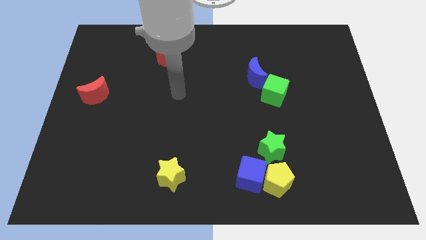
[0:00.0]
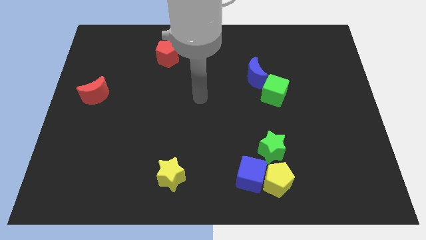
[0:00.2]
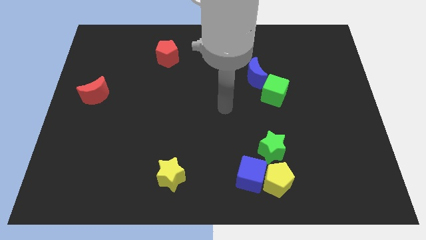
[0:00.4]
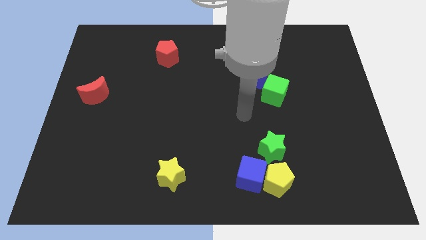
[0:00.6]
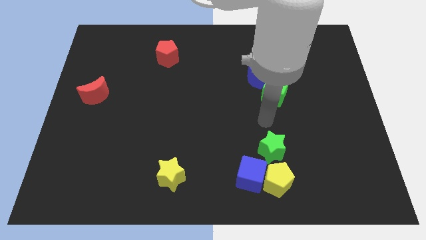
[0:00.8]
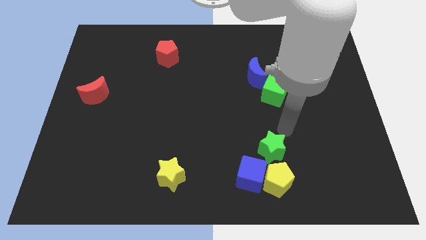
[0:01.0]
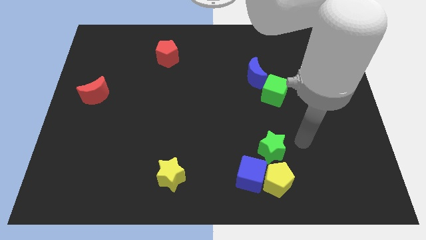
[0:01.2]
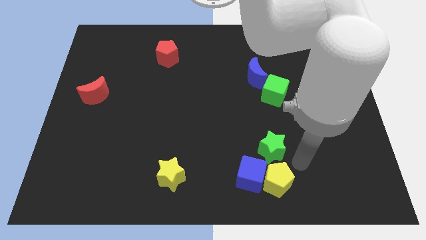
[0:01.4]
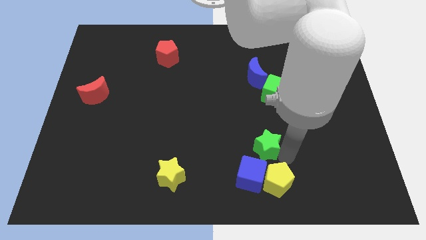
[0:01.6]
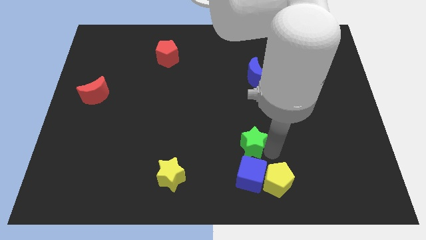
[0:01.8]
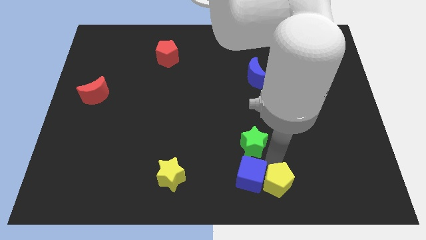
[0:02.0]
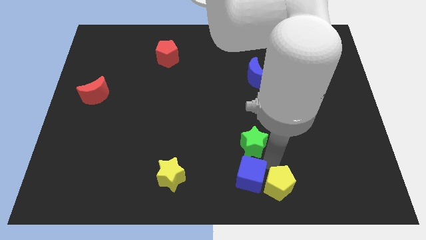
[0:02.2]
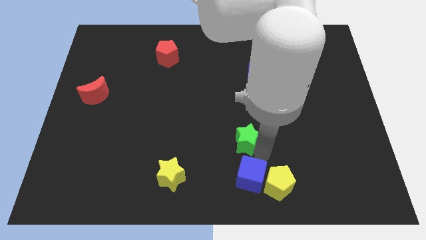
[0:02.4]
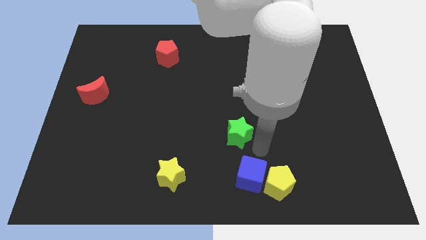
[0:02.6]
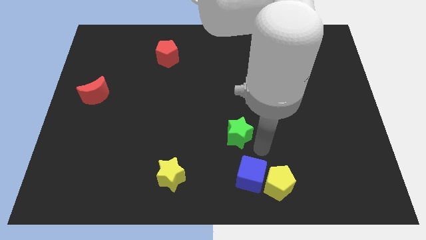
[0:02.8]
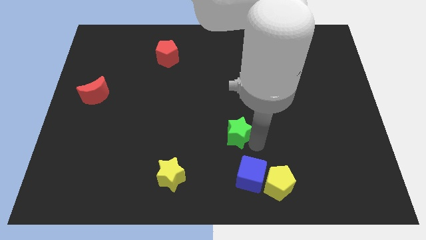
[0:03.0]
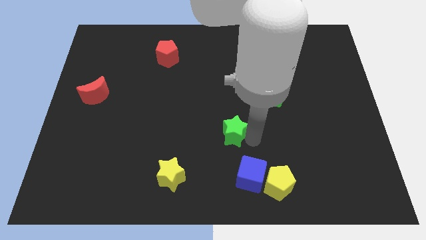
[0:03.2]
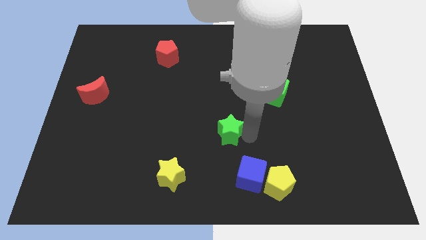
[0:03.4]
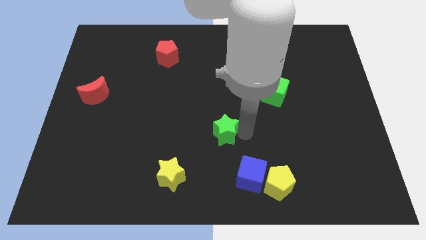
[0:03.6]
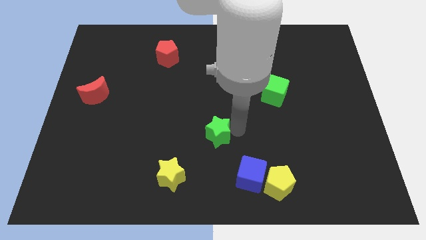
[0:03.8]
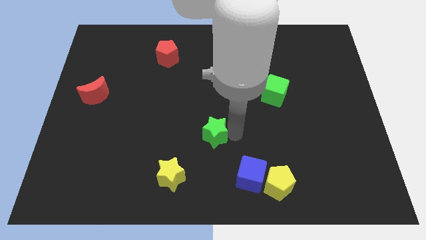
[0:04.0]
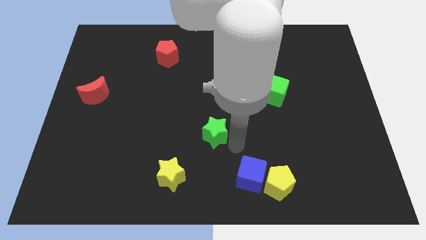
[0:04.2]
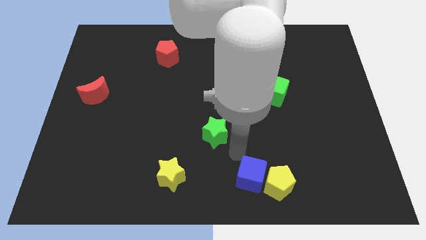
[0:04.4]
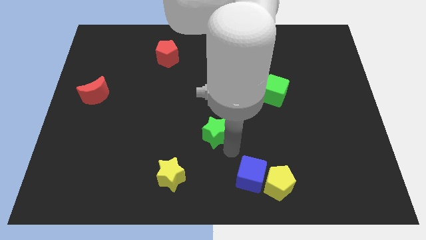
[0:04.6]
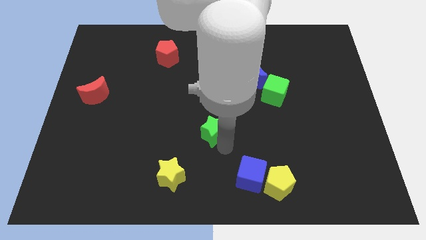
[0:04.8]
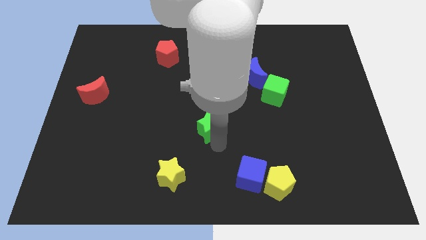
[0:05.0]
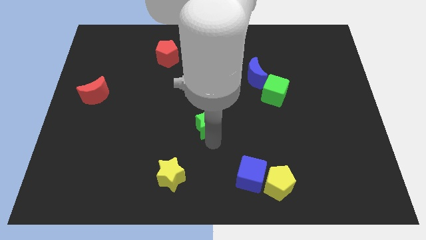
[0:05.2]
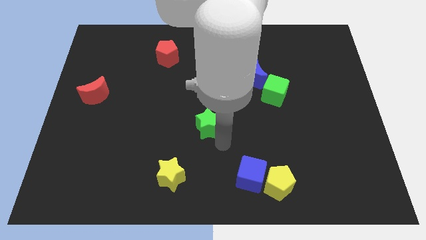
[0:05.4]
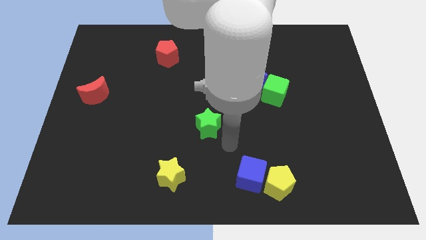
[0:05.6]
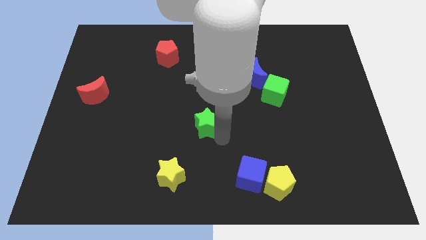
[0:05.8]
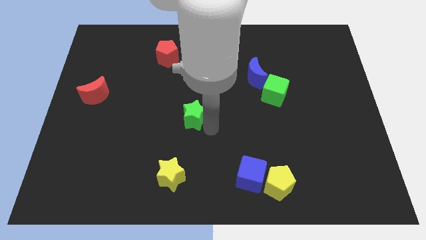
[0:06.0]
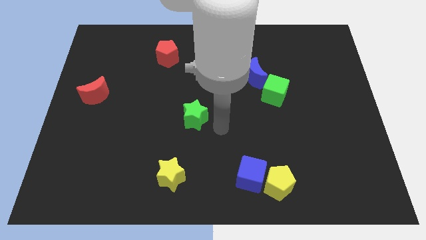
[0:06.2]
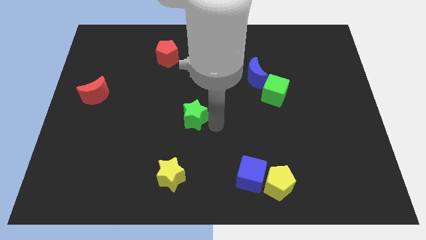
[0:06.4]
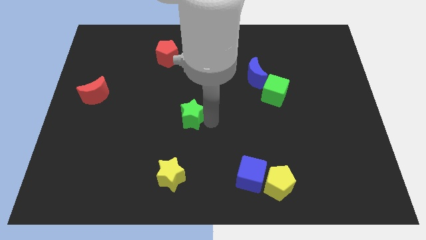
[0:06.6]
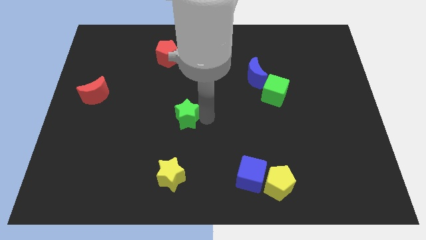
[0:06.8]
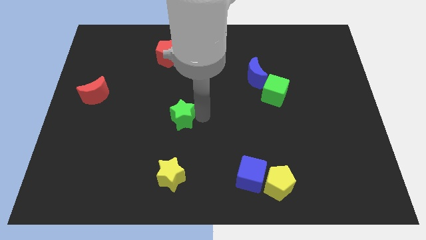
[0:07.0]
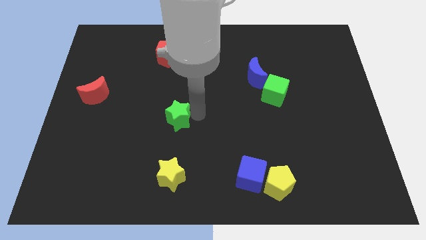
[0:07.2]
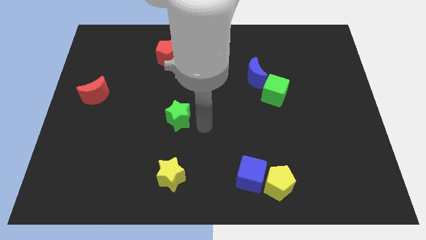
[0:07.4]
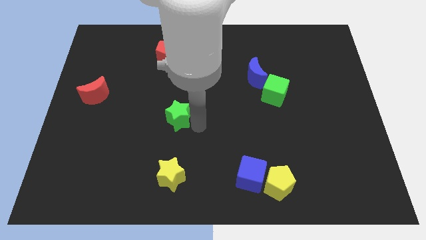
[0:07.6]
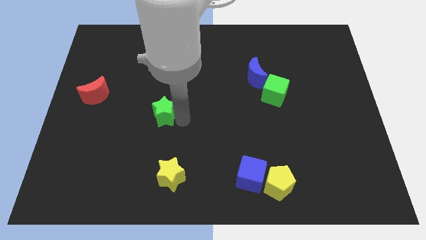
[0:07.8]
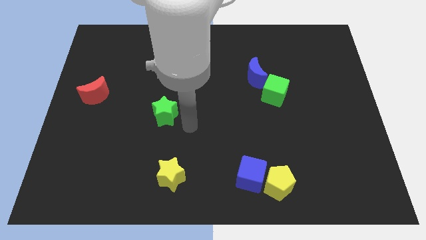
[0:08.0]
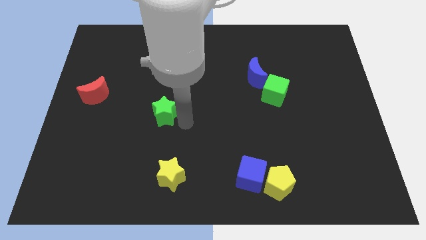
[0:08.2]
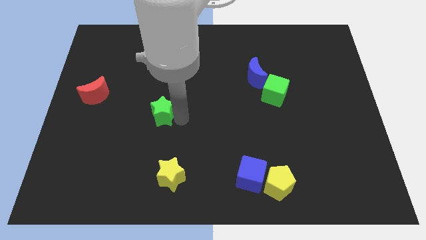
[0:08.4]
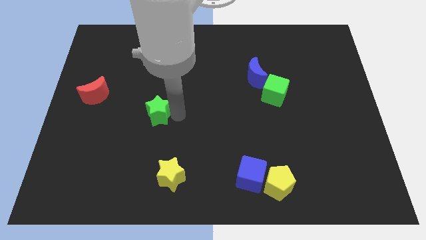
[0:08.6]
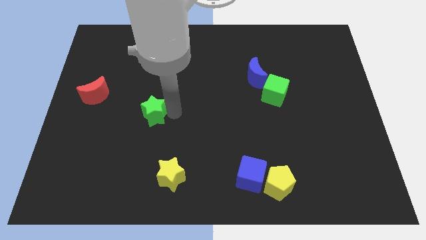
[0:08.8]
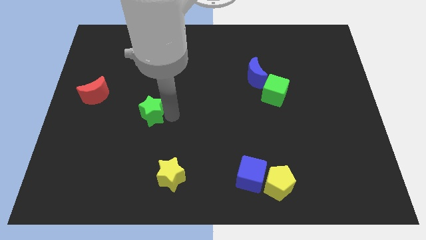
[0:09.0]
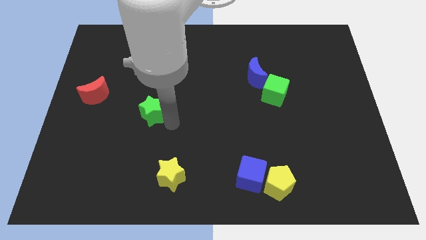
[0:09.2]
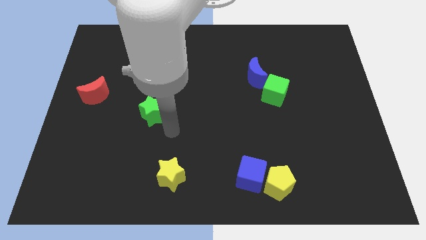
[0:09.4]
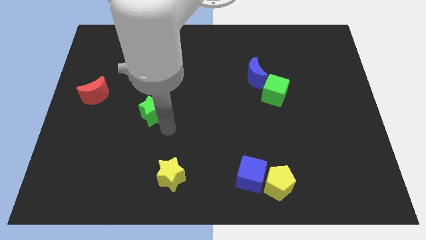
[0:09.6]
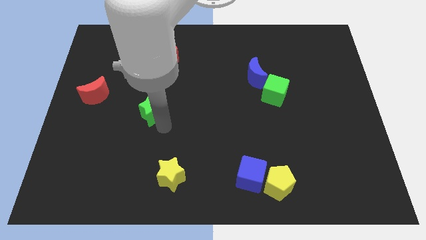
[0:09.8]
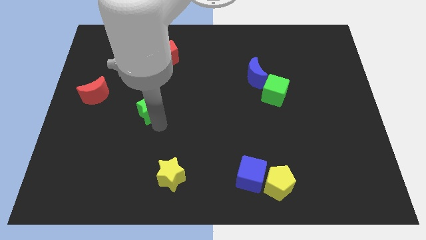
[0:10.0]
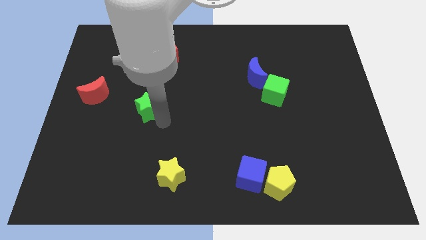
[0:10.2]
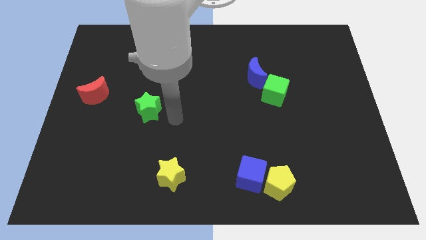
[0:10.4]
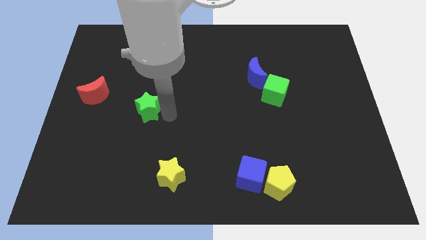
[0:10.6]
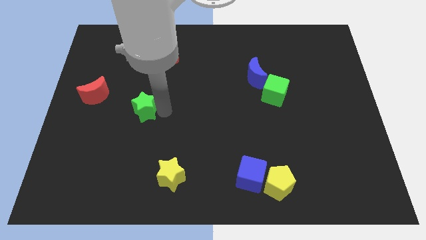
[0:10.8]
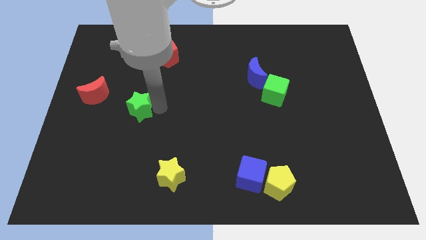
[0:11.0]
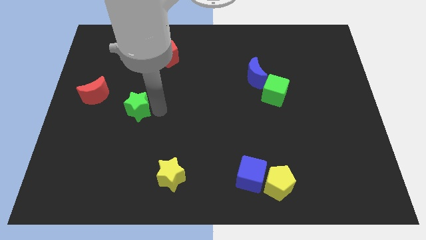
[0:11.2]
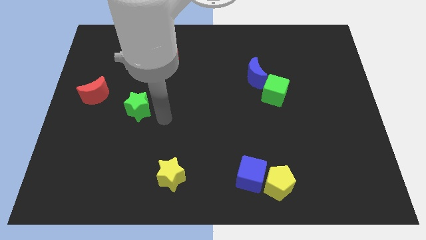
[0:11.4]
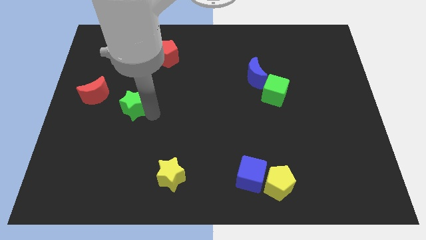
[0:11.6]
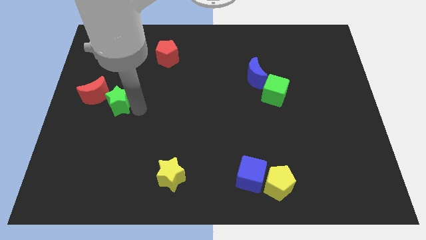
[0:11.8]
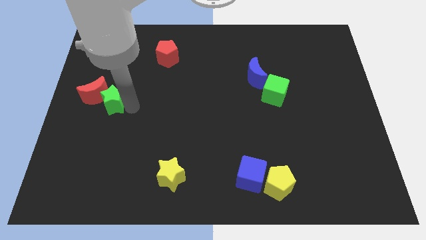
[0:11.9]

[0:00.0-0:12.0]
put the green star next to the red moon

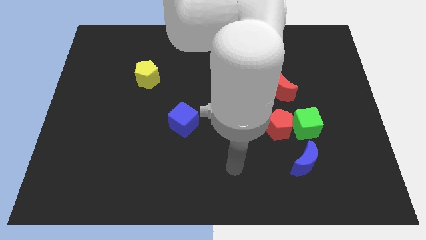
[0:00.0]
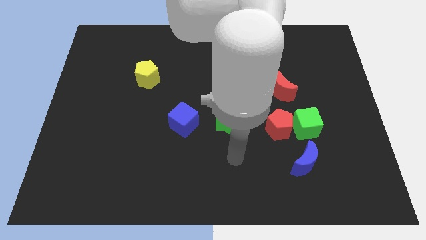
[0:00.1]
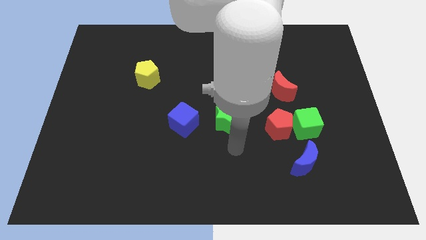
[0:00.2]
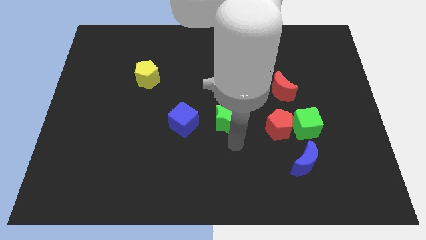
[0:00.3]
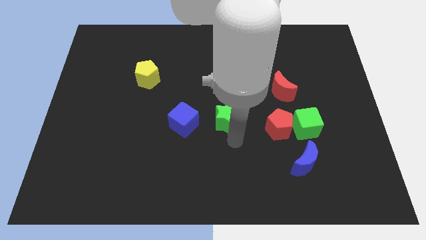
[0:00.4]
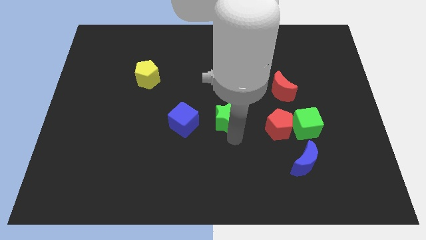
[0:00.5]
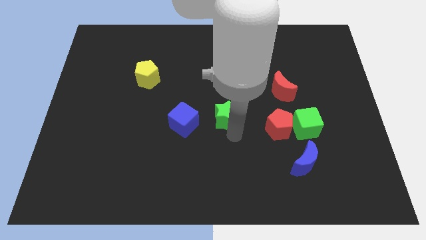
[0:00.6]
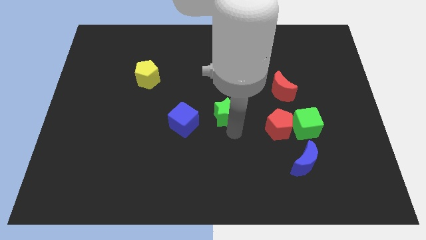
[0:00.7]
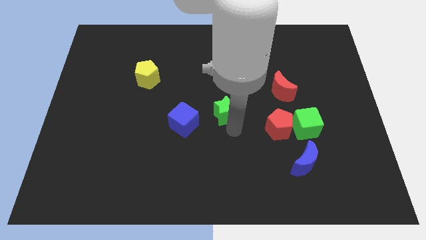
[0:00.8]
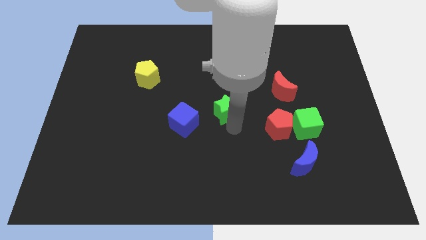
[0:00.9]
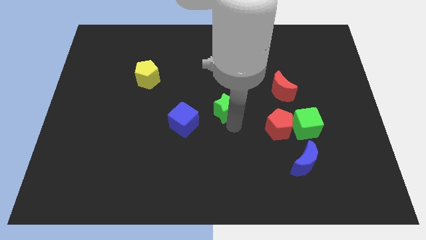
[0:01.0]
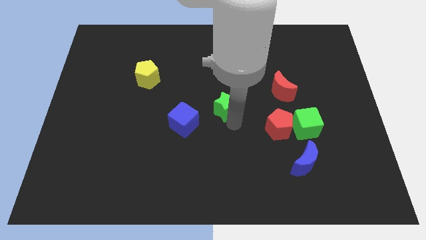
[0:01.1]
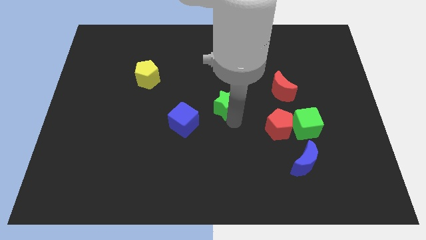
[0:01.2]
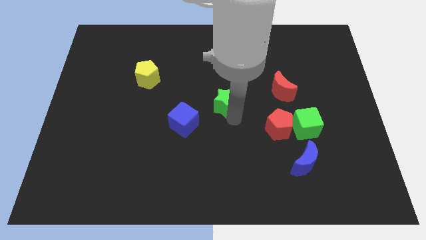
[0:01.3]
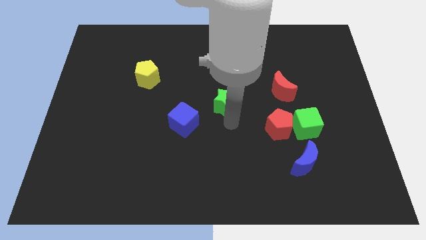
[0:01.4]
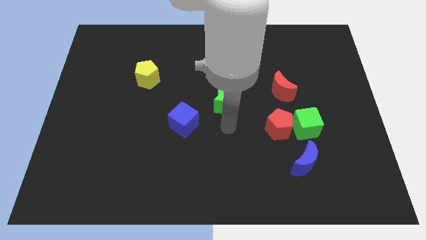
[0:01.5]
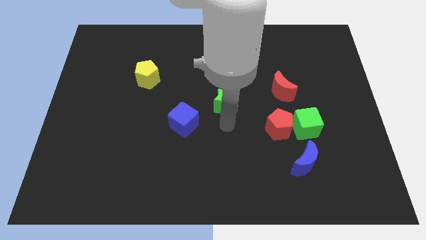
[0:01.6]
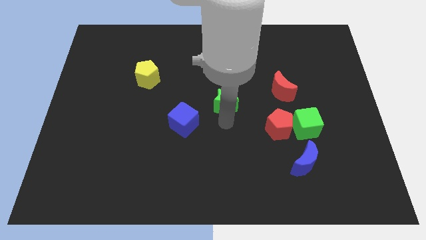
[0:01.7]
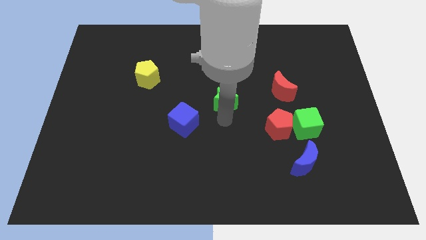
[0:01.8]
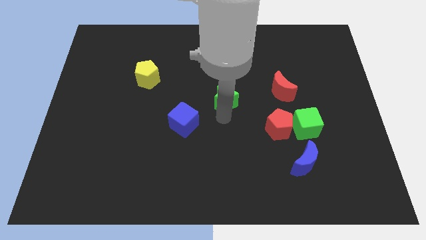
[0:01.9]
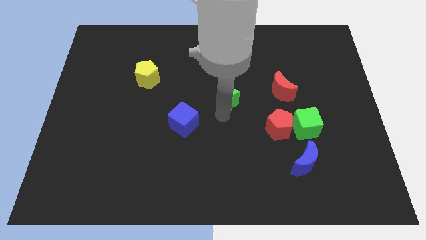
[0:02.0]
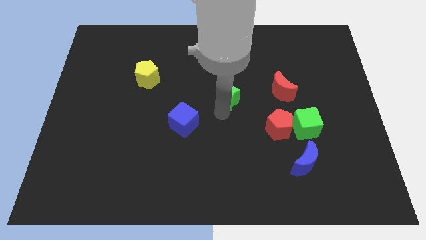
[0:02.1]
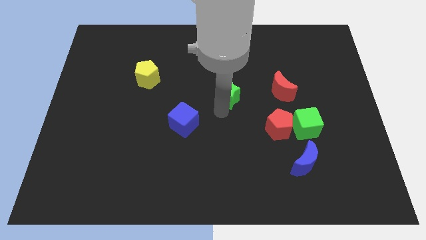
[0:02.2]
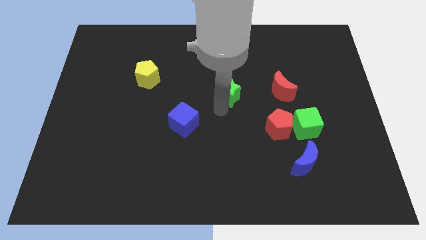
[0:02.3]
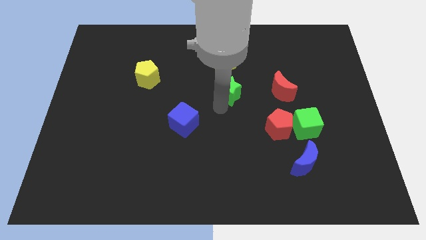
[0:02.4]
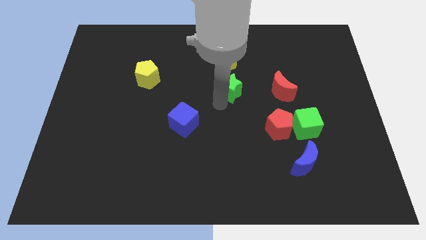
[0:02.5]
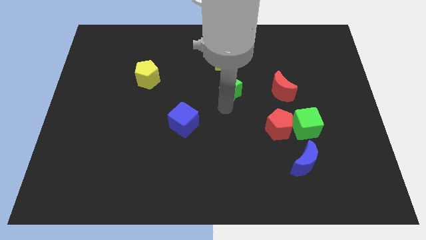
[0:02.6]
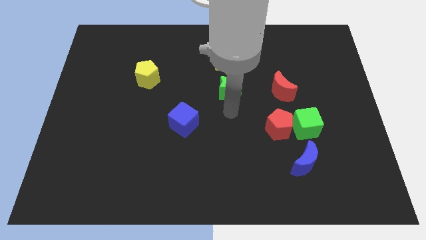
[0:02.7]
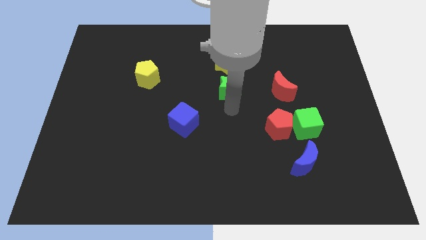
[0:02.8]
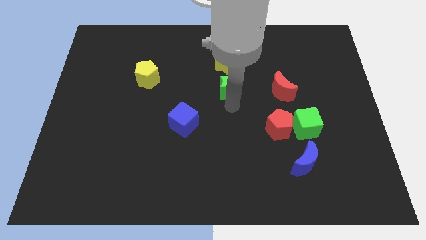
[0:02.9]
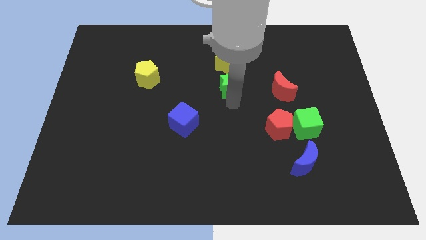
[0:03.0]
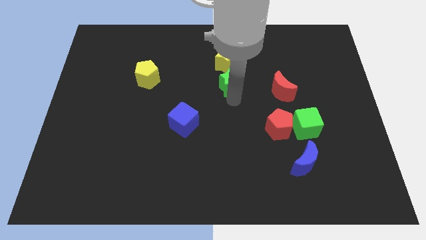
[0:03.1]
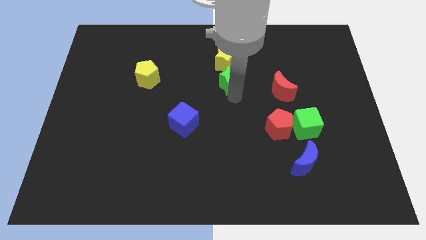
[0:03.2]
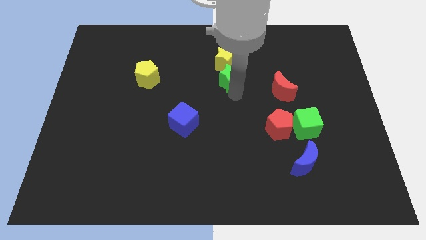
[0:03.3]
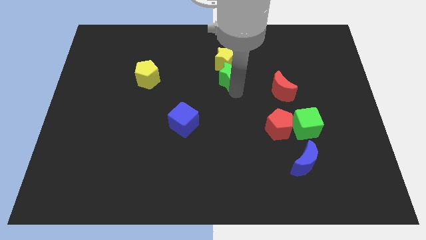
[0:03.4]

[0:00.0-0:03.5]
slide the green star close to the yellow star
